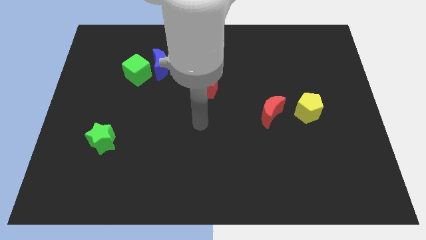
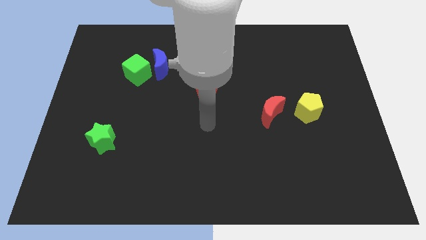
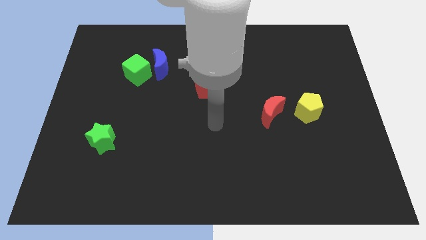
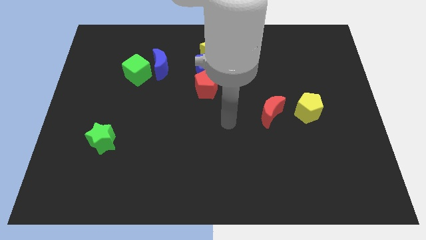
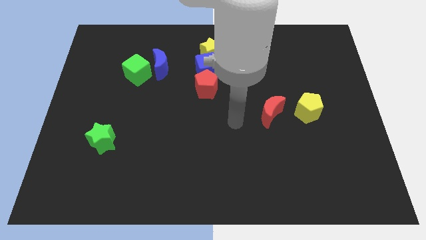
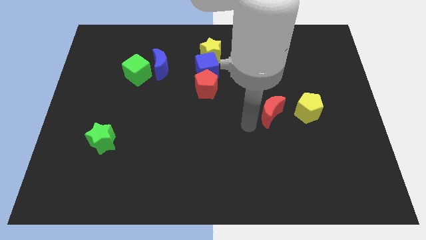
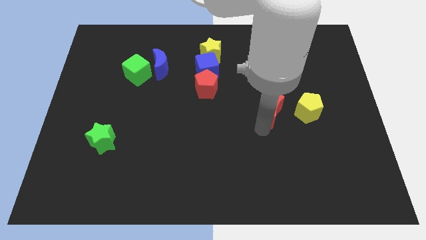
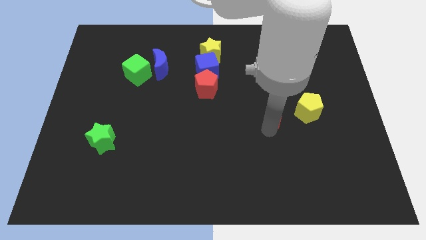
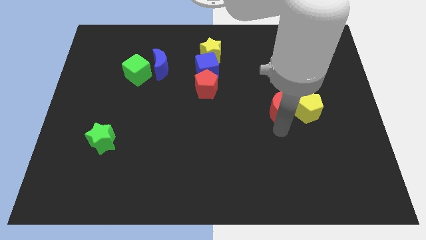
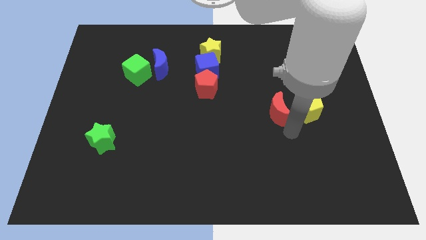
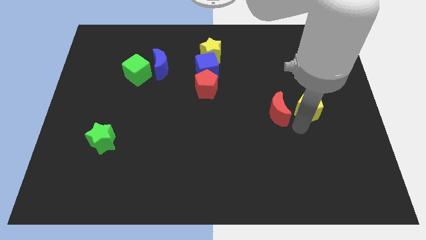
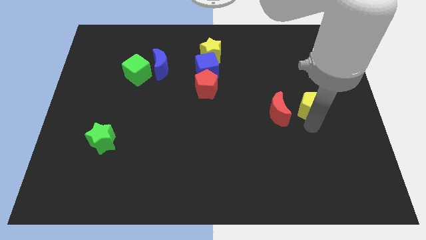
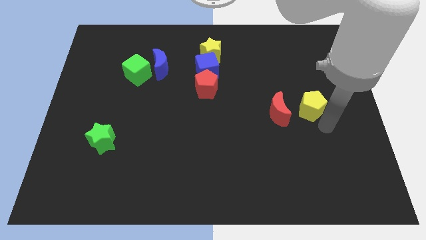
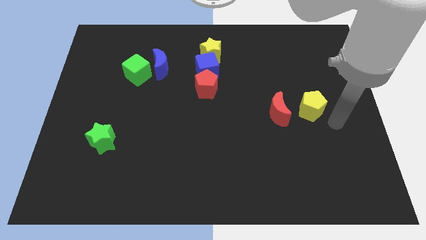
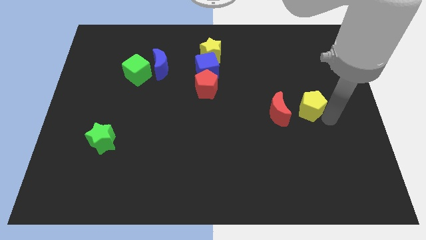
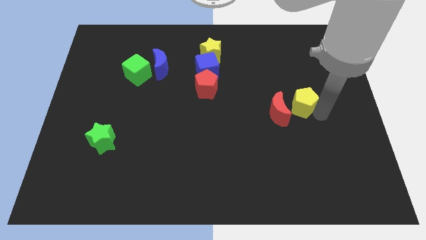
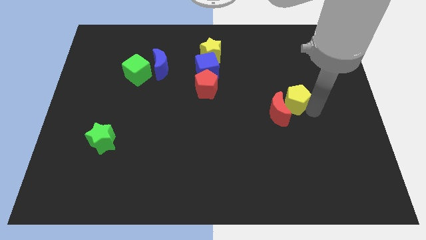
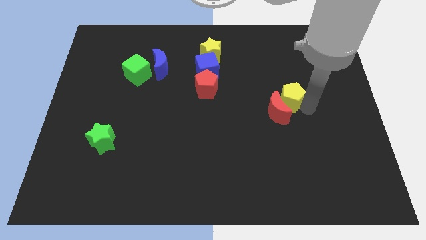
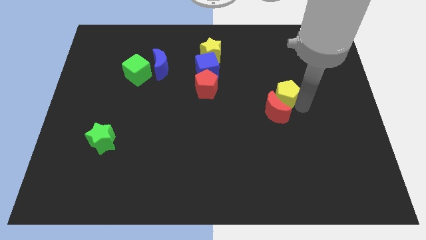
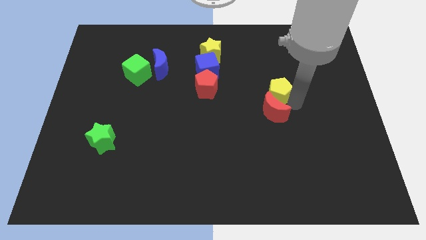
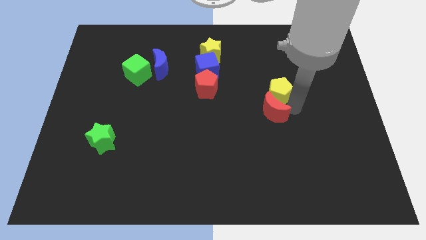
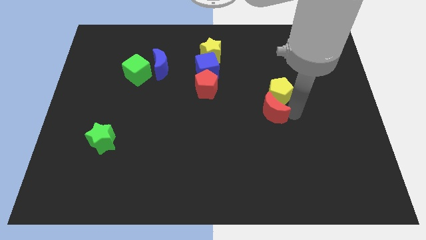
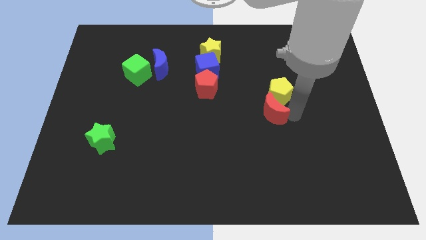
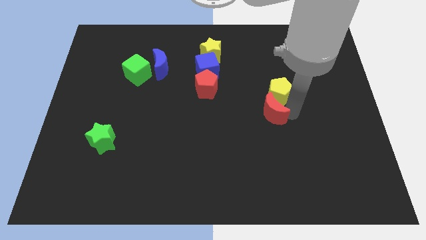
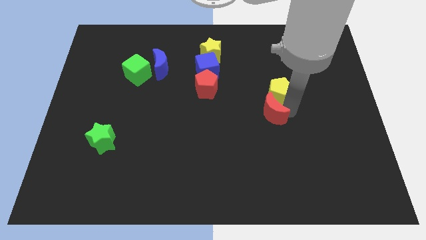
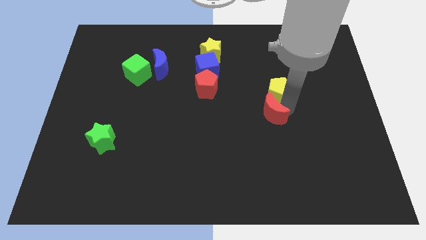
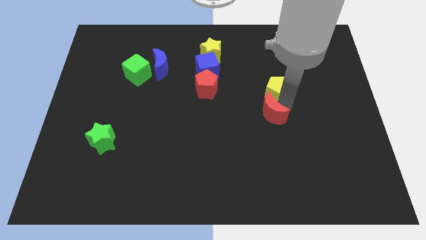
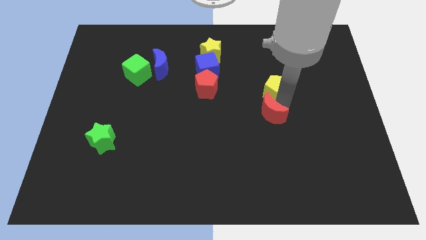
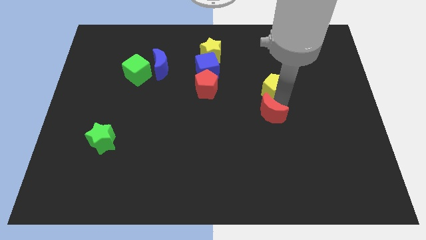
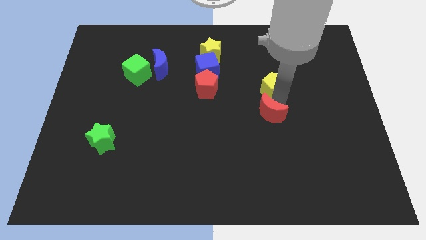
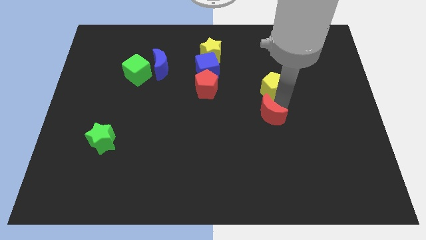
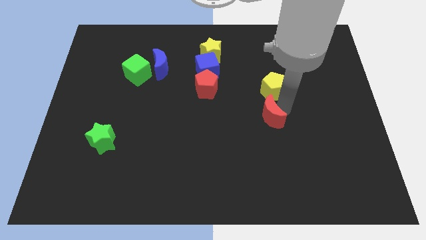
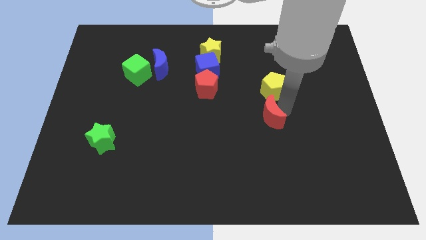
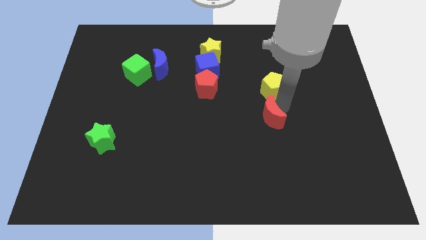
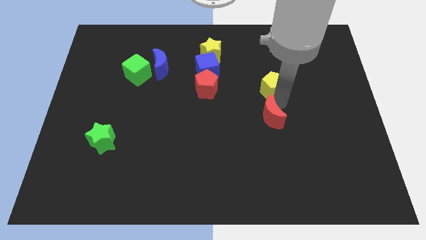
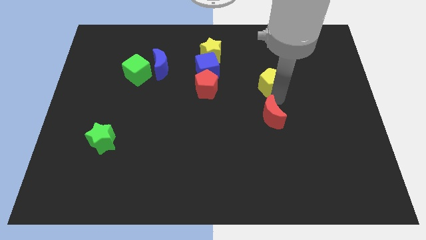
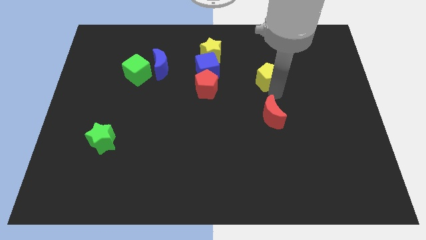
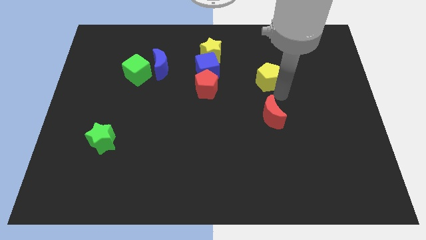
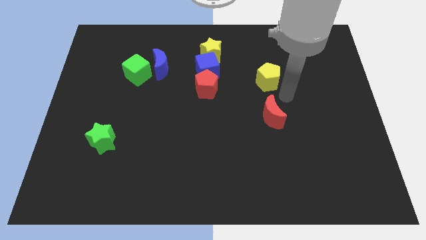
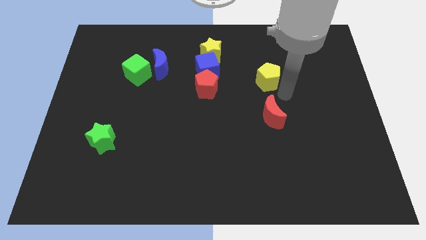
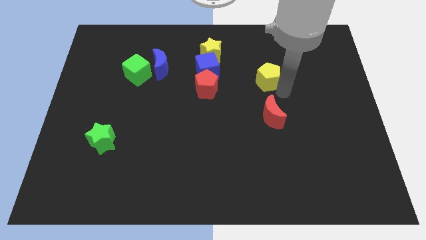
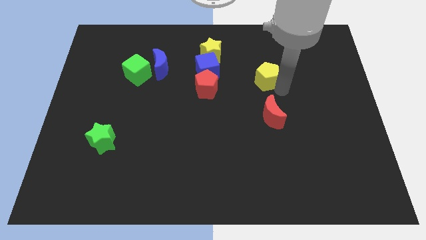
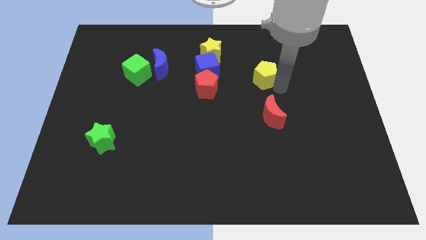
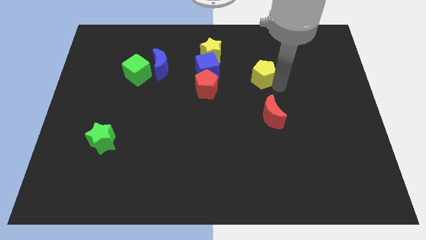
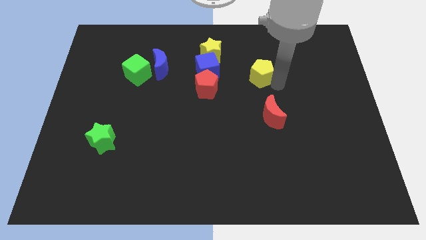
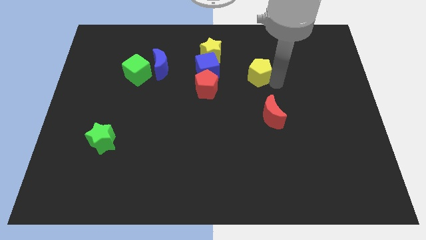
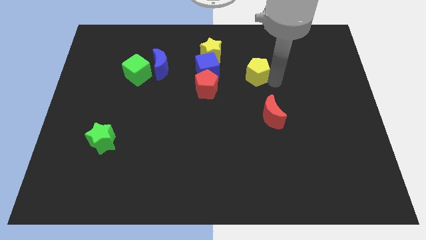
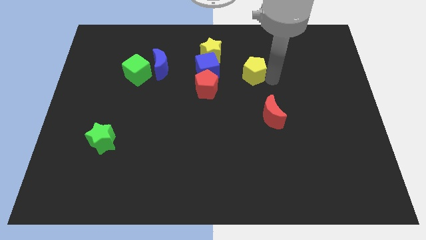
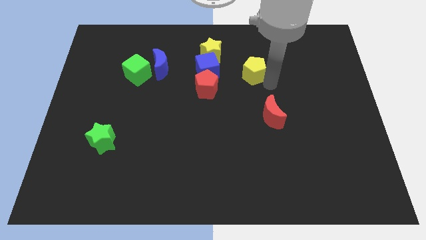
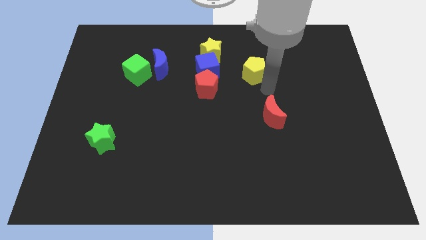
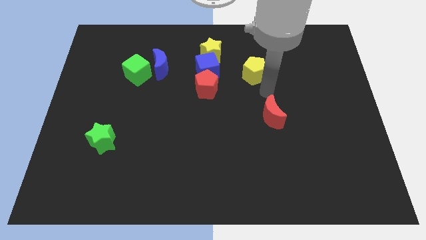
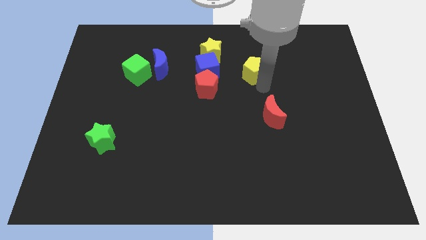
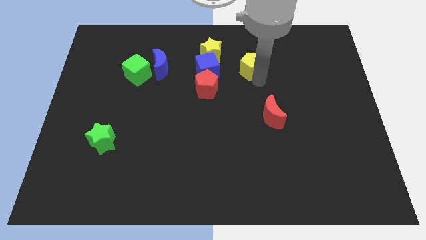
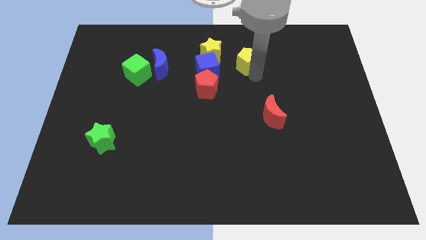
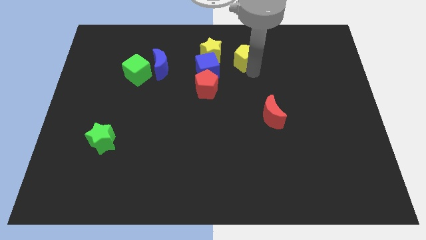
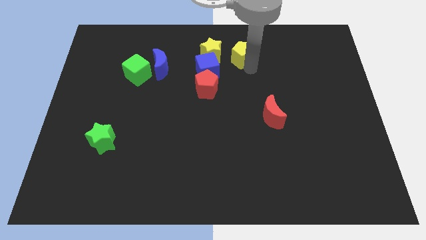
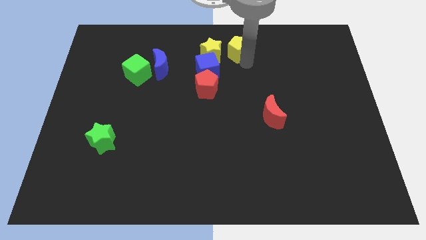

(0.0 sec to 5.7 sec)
push the yellow pentagon to the top

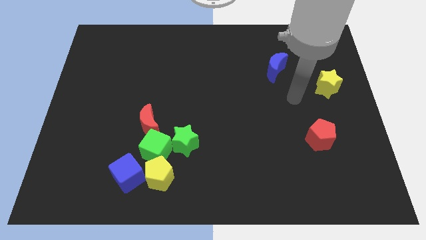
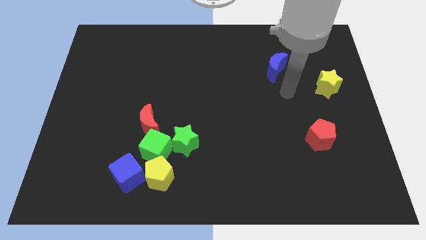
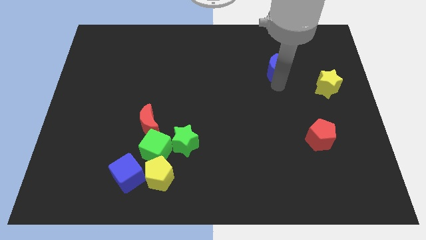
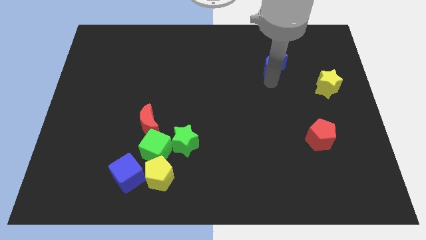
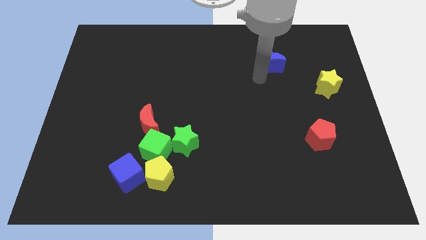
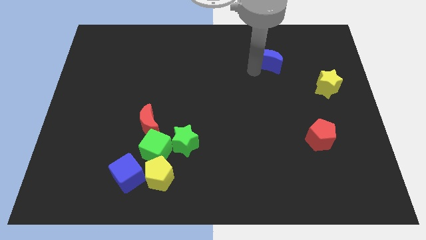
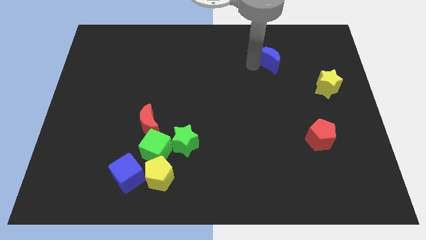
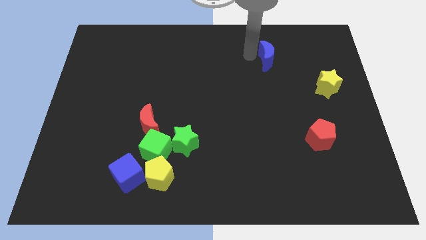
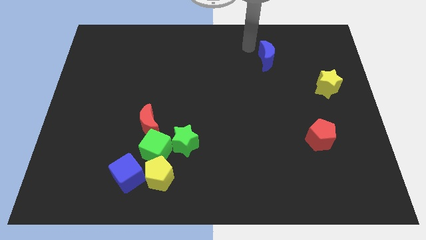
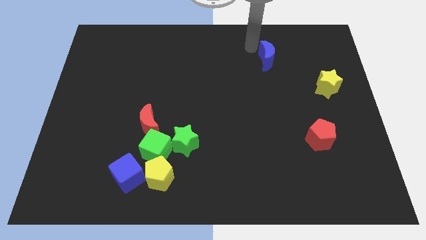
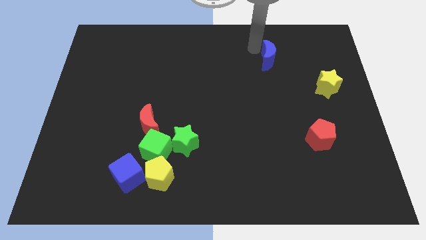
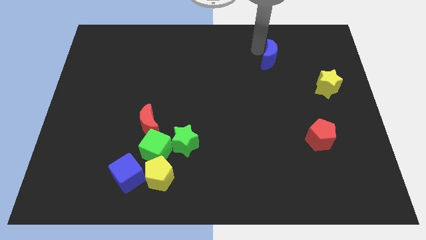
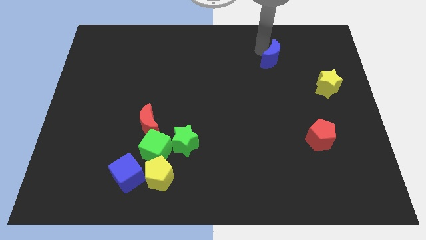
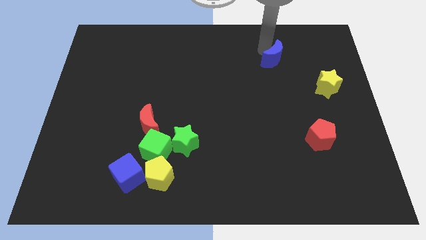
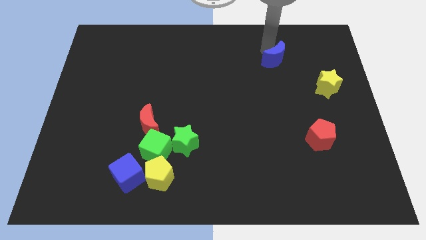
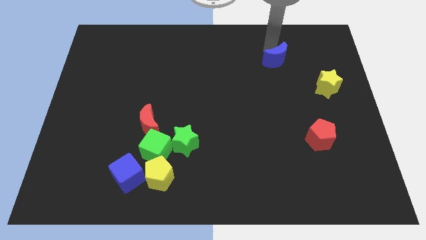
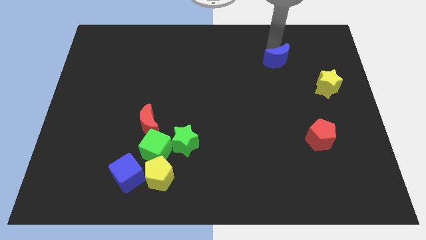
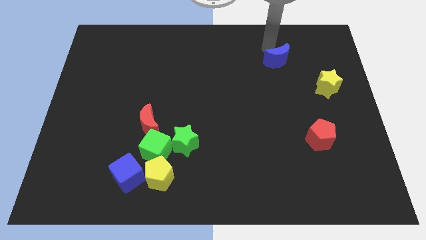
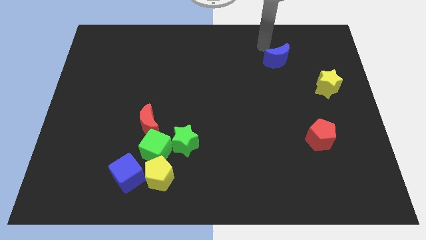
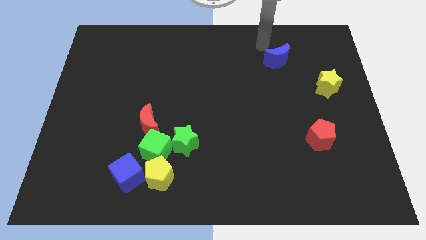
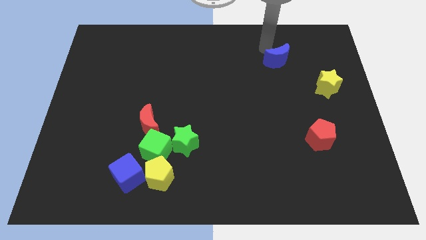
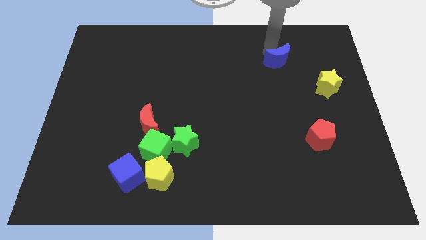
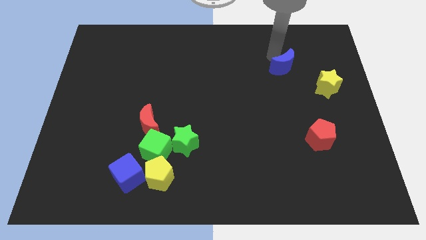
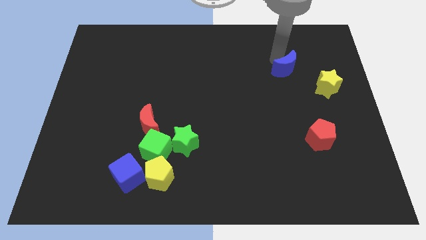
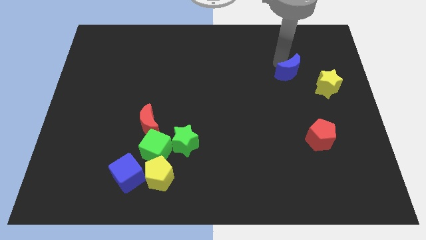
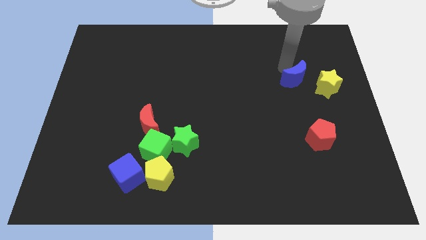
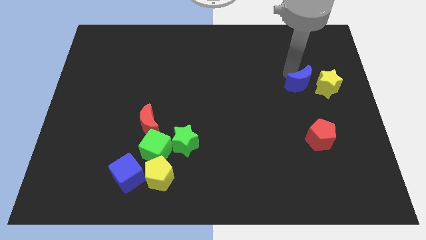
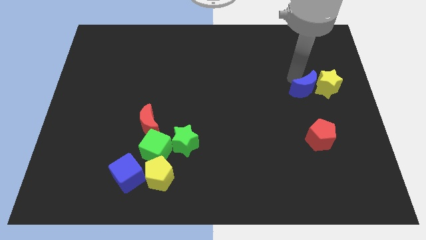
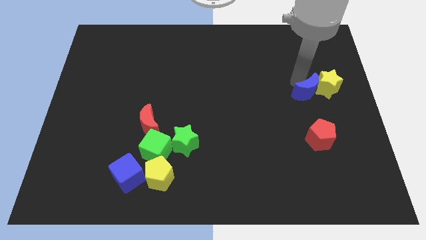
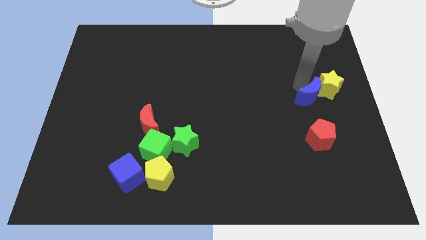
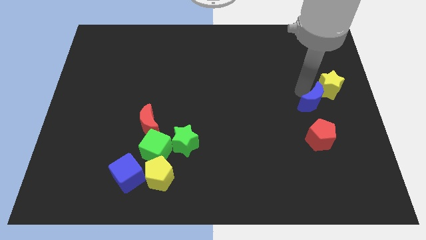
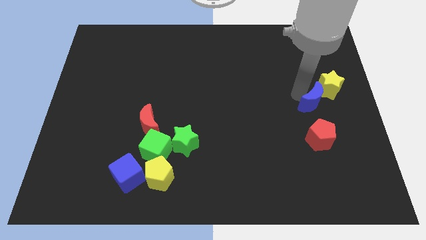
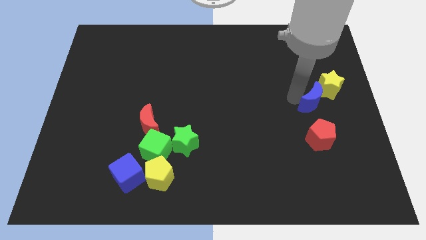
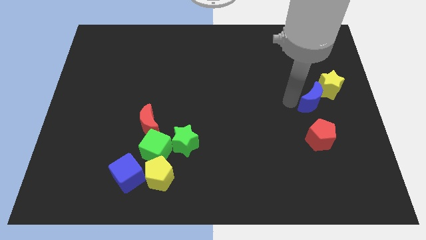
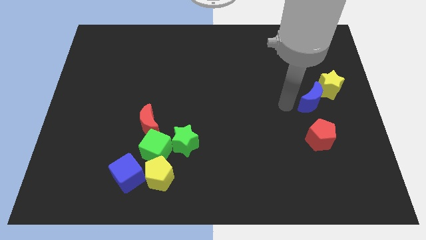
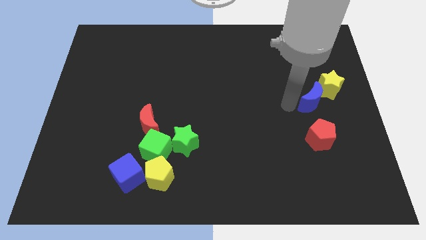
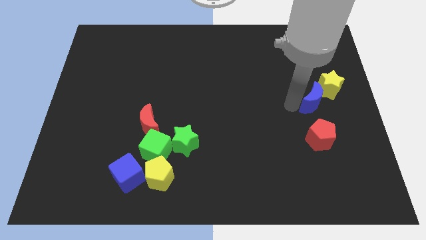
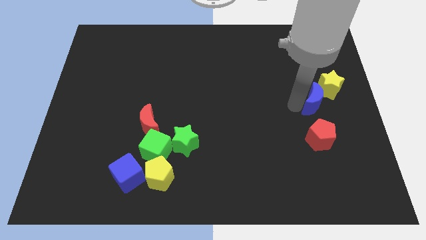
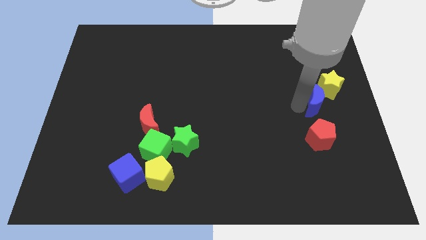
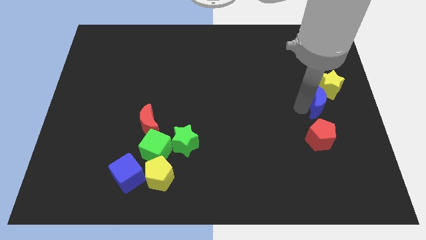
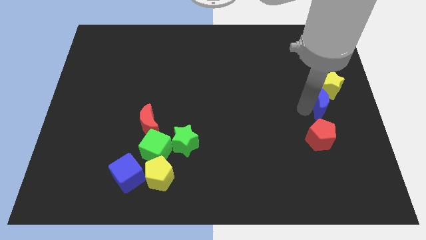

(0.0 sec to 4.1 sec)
slide the blue moon to the right side
